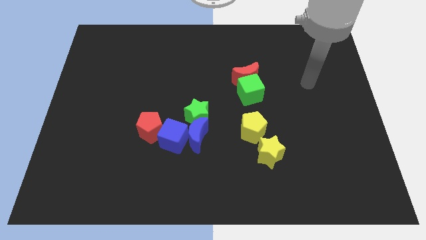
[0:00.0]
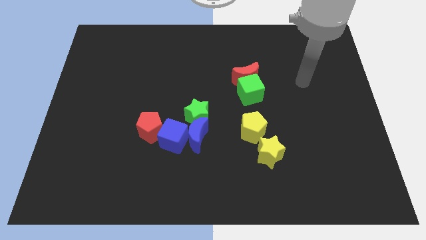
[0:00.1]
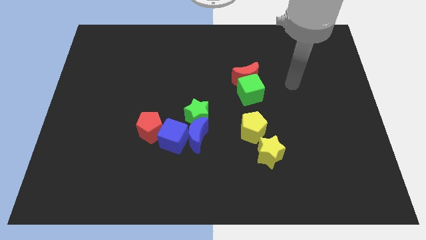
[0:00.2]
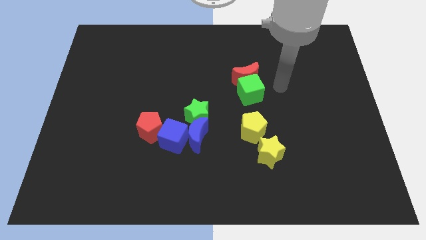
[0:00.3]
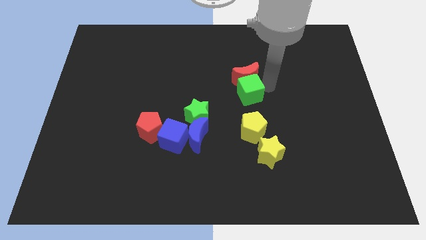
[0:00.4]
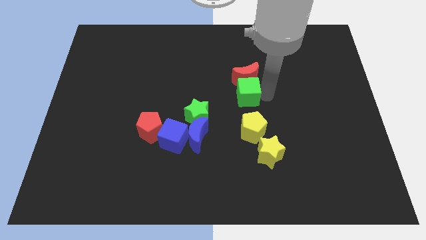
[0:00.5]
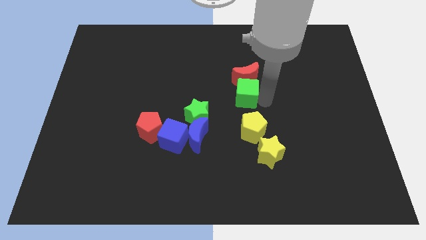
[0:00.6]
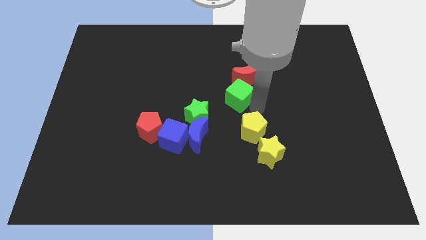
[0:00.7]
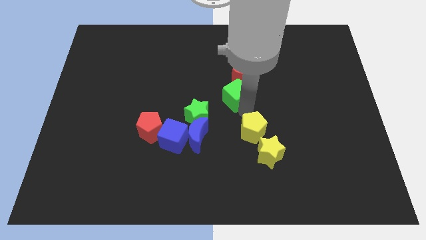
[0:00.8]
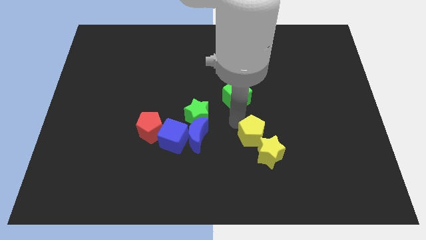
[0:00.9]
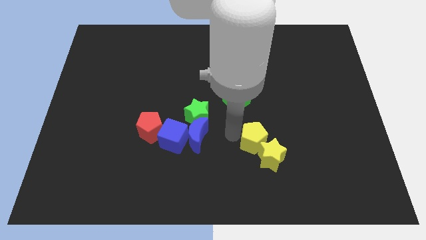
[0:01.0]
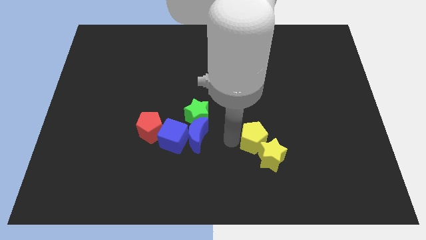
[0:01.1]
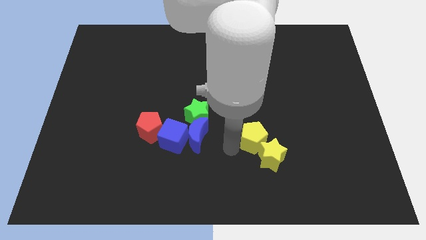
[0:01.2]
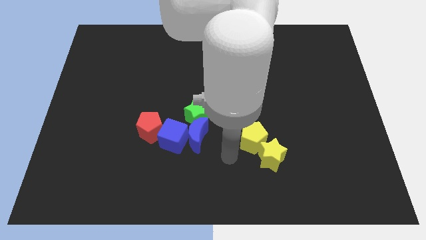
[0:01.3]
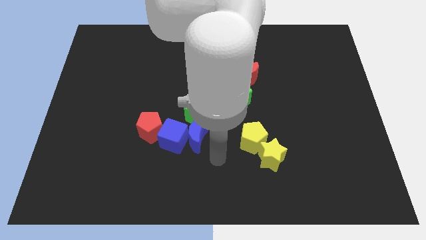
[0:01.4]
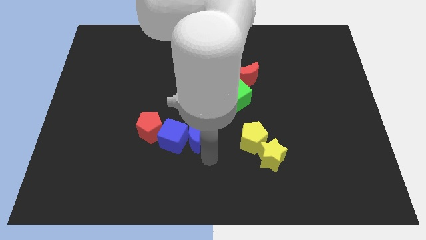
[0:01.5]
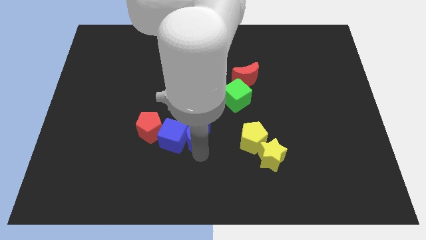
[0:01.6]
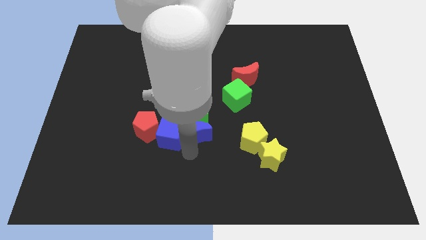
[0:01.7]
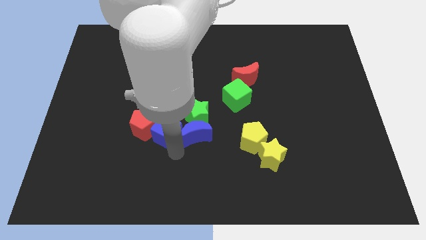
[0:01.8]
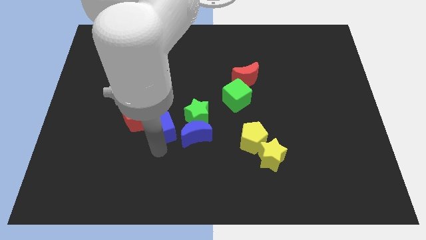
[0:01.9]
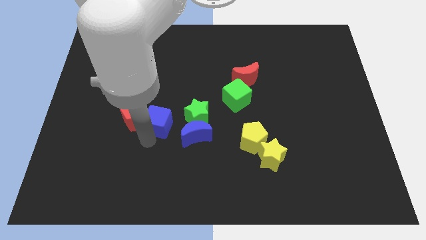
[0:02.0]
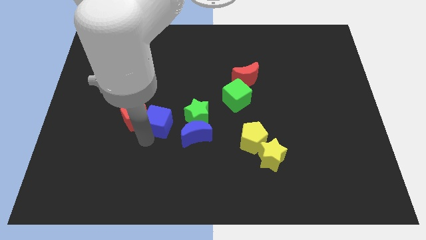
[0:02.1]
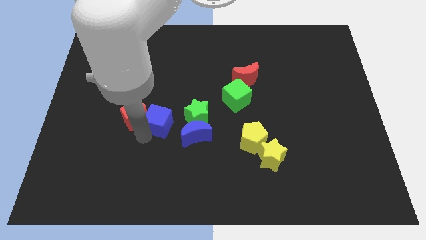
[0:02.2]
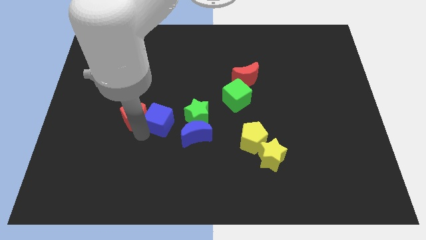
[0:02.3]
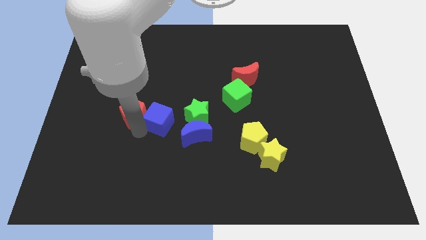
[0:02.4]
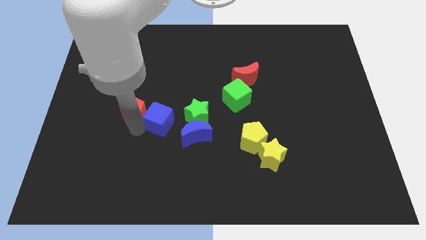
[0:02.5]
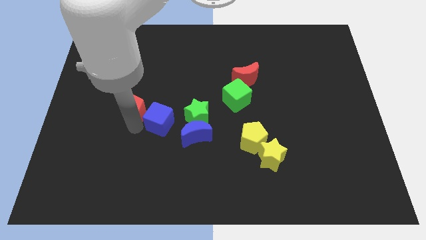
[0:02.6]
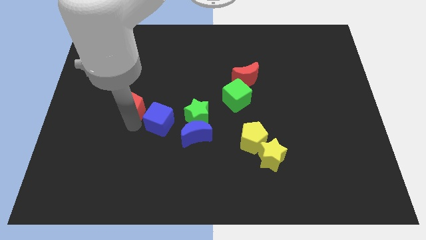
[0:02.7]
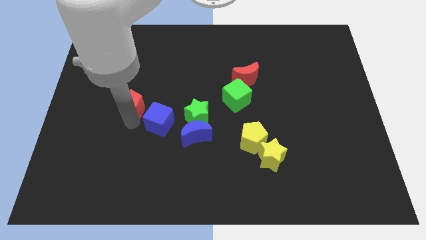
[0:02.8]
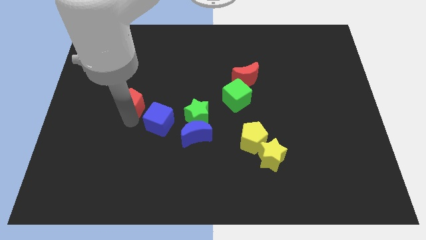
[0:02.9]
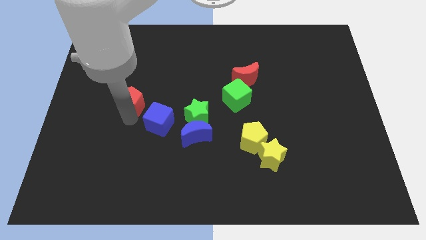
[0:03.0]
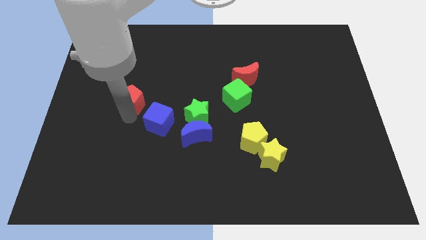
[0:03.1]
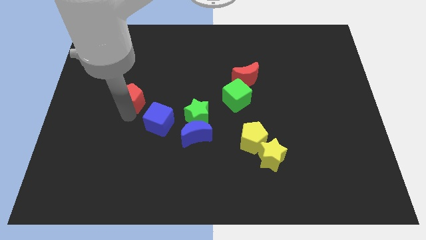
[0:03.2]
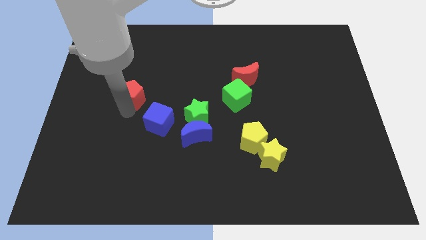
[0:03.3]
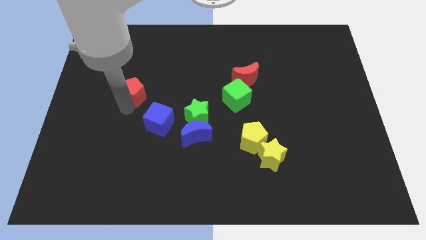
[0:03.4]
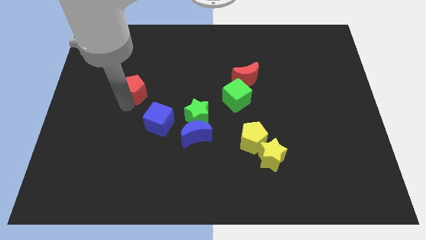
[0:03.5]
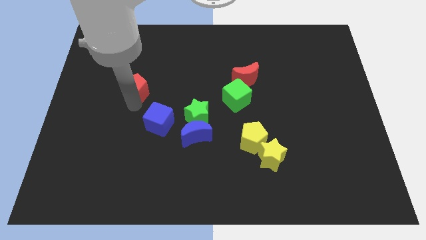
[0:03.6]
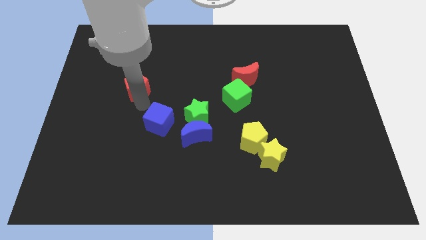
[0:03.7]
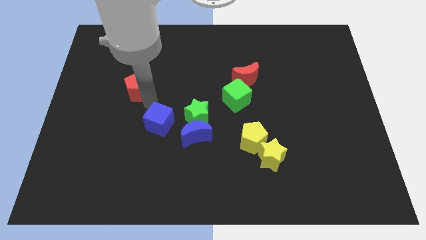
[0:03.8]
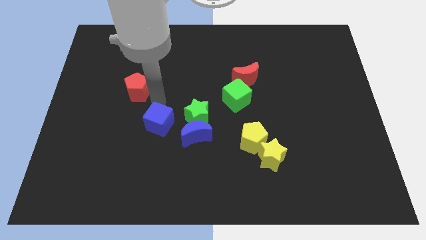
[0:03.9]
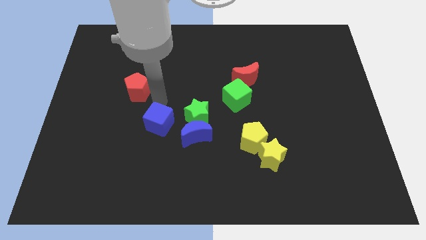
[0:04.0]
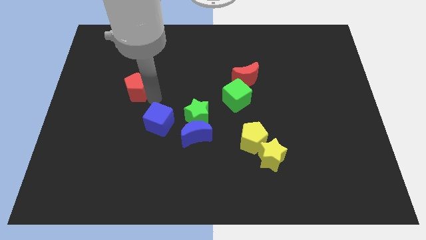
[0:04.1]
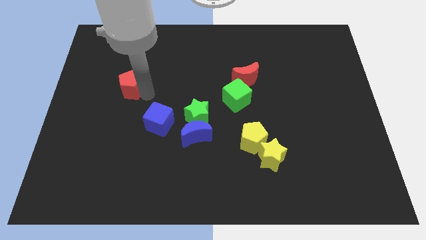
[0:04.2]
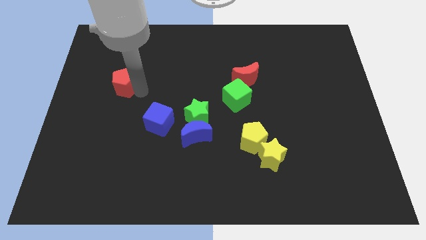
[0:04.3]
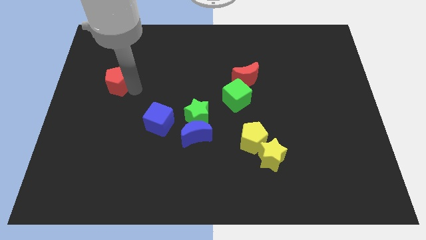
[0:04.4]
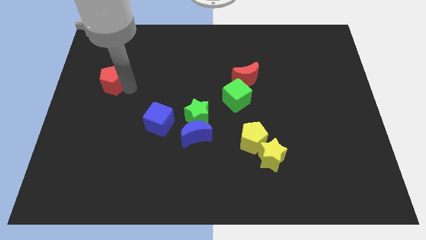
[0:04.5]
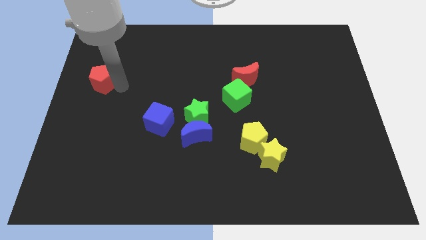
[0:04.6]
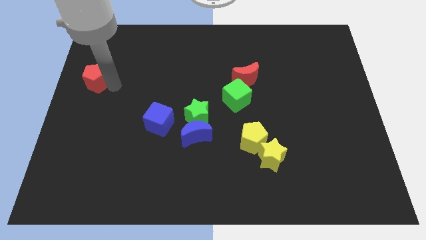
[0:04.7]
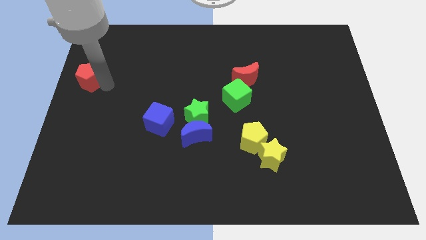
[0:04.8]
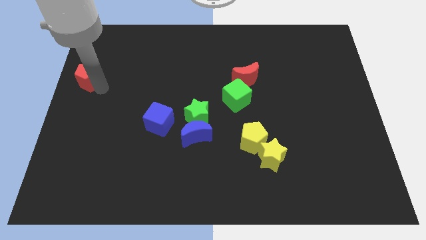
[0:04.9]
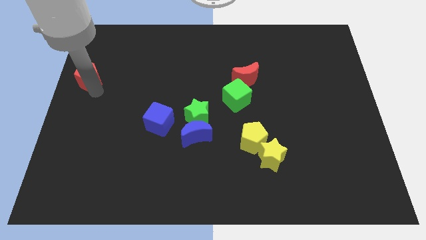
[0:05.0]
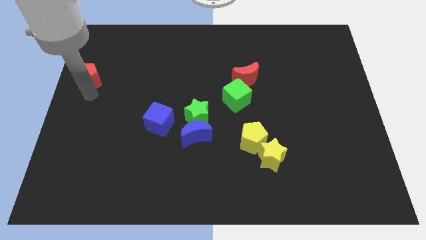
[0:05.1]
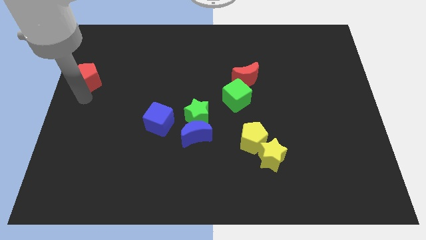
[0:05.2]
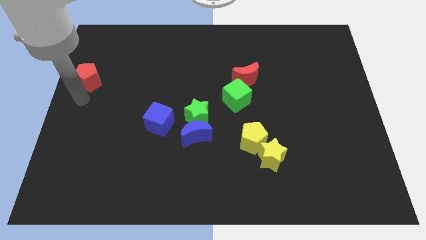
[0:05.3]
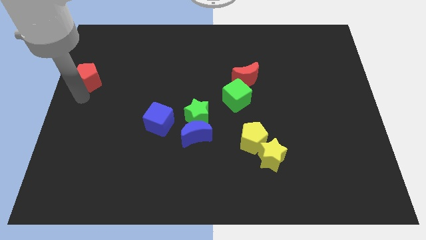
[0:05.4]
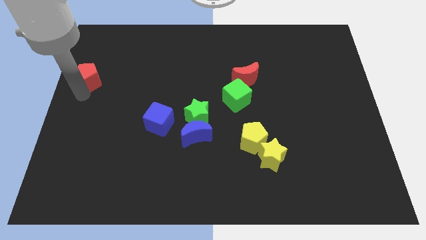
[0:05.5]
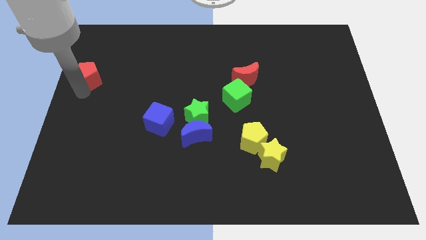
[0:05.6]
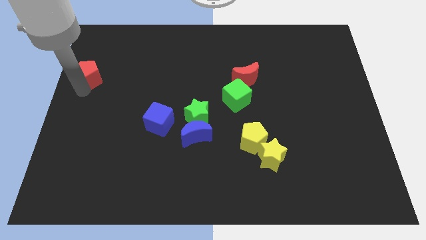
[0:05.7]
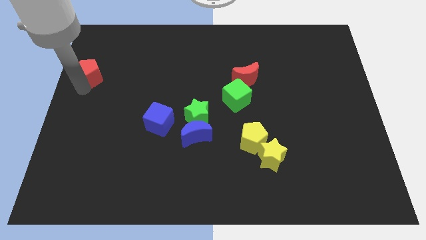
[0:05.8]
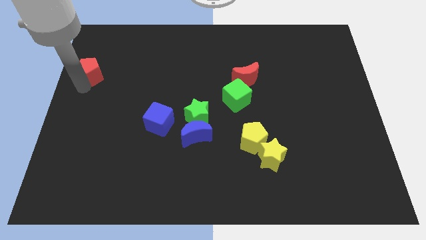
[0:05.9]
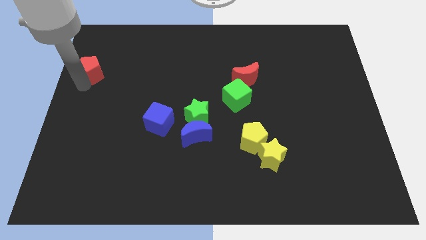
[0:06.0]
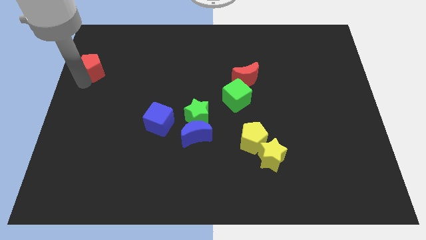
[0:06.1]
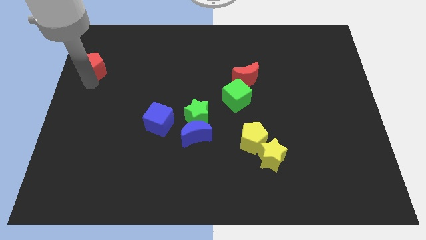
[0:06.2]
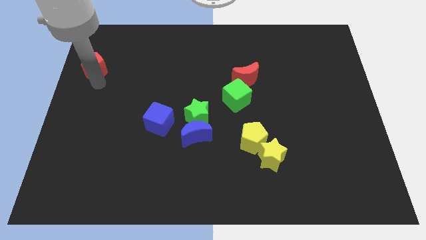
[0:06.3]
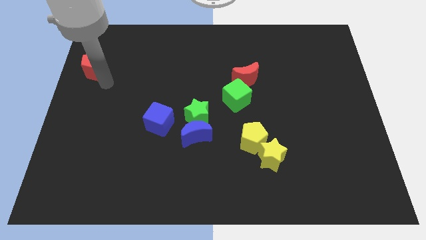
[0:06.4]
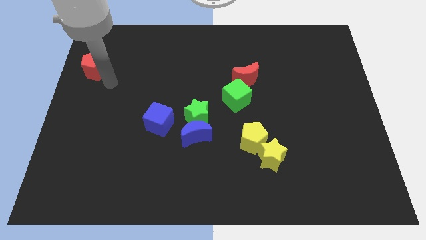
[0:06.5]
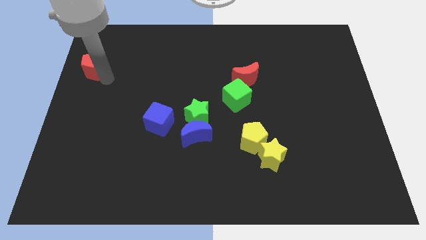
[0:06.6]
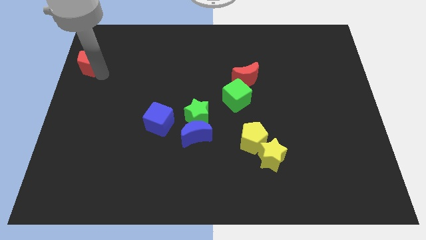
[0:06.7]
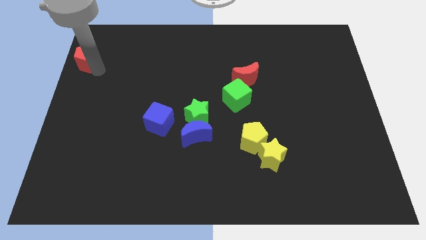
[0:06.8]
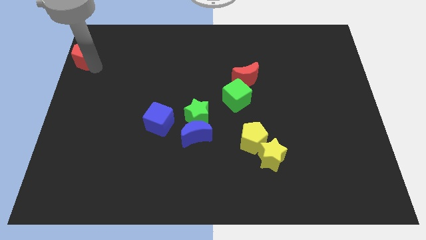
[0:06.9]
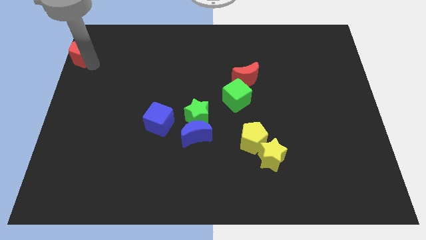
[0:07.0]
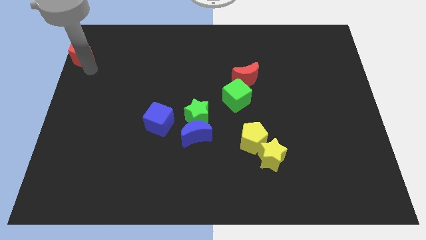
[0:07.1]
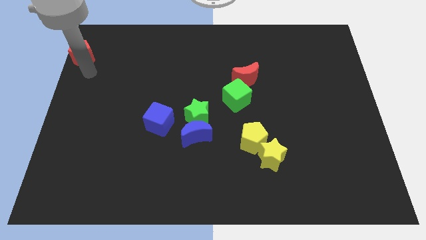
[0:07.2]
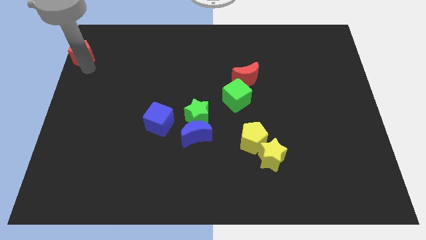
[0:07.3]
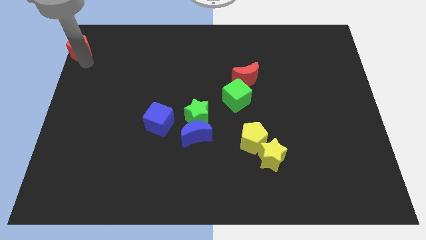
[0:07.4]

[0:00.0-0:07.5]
push the red pentagon to the top left of the board
